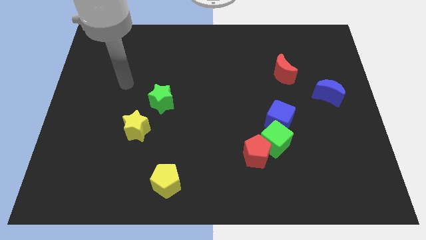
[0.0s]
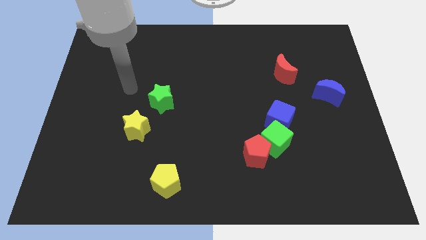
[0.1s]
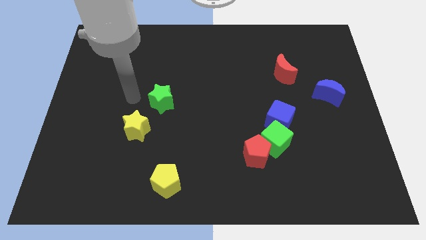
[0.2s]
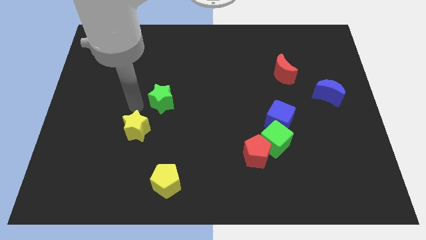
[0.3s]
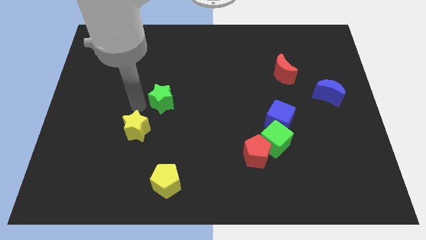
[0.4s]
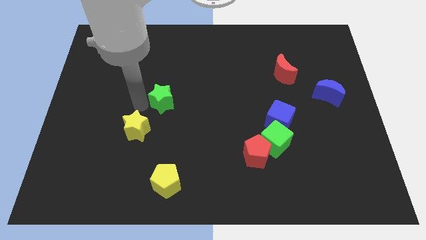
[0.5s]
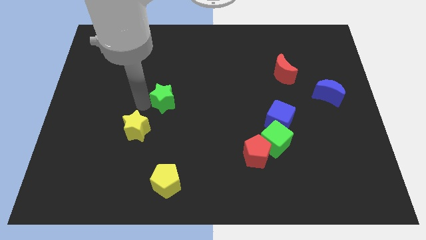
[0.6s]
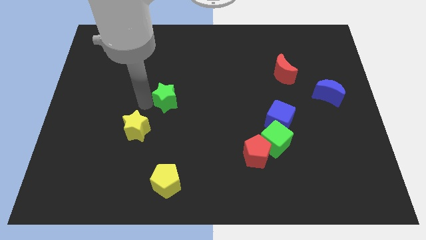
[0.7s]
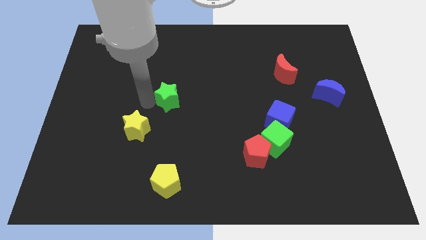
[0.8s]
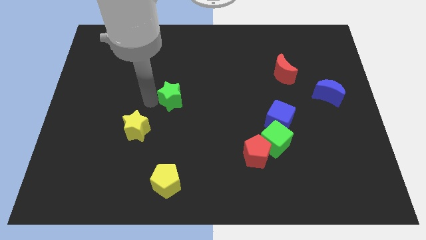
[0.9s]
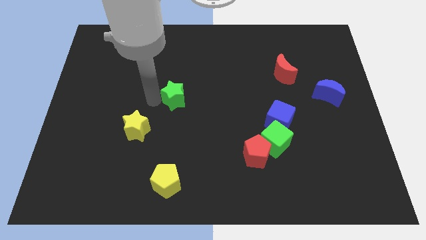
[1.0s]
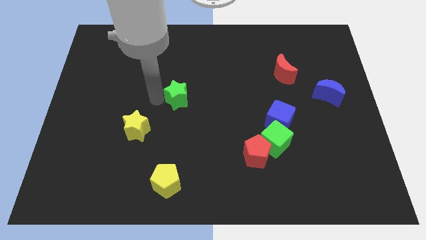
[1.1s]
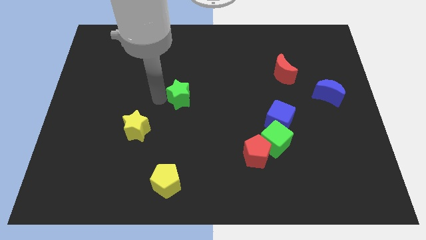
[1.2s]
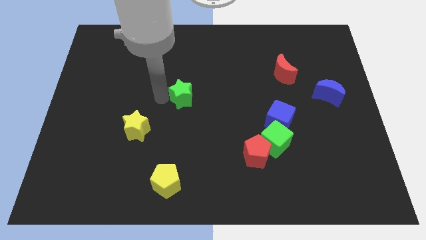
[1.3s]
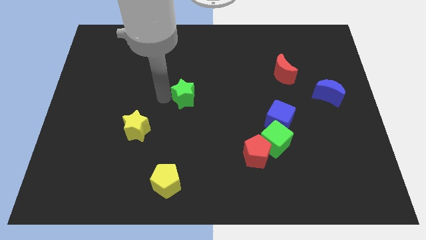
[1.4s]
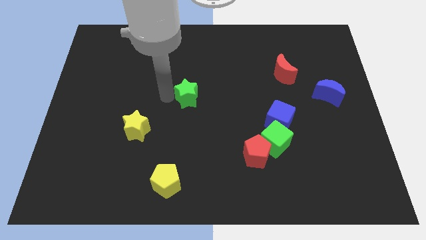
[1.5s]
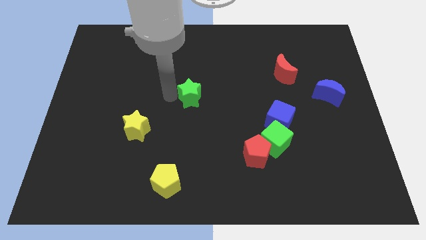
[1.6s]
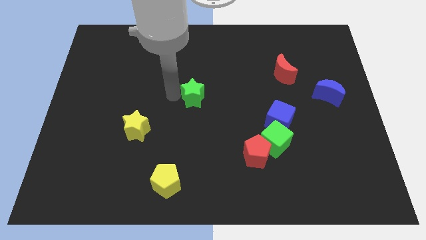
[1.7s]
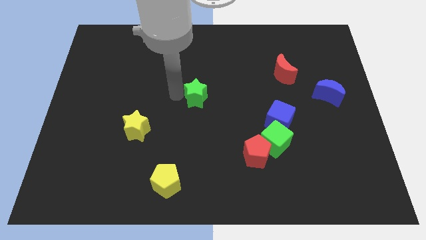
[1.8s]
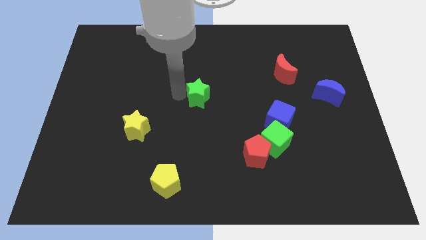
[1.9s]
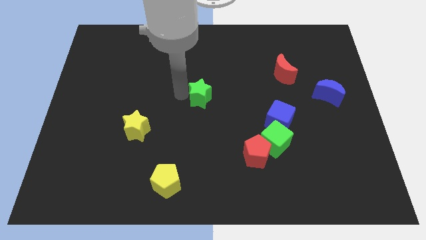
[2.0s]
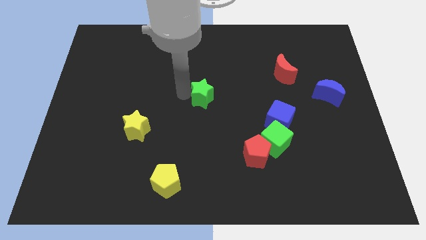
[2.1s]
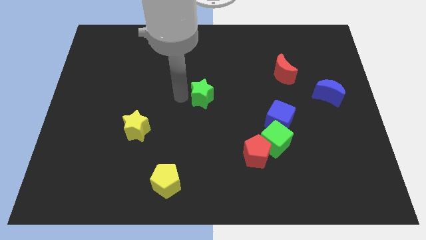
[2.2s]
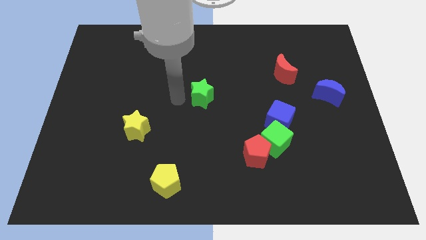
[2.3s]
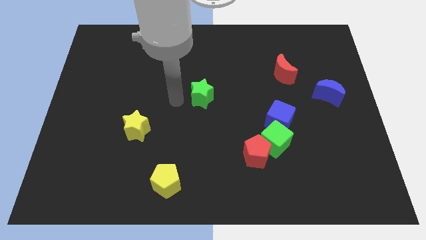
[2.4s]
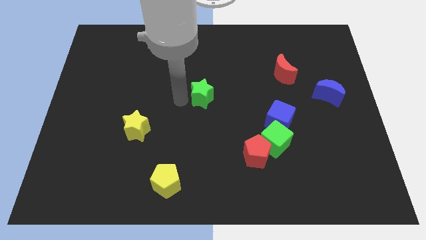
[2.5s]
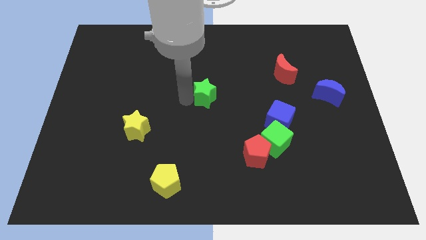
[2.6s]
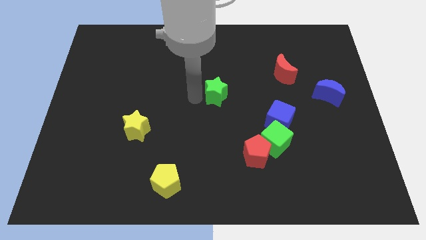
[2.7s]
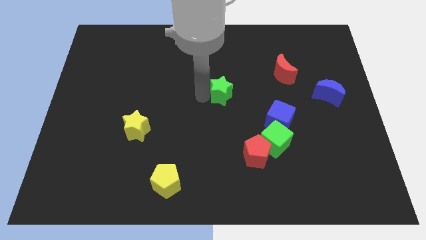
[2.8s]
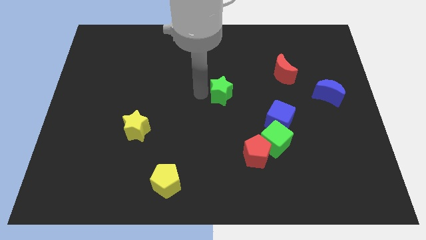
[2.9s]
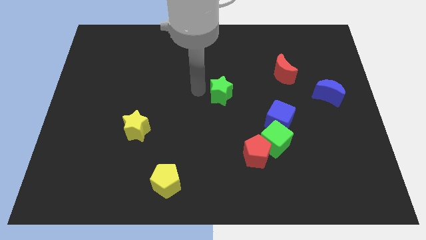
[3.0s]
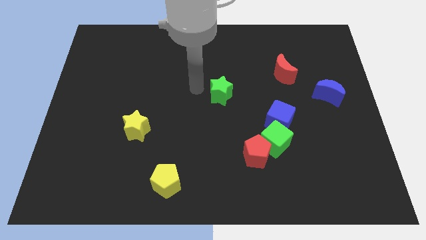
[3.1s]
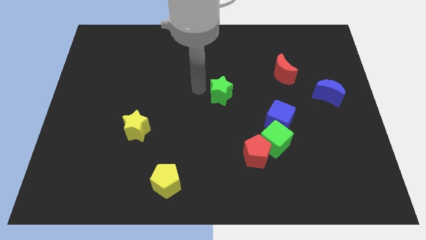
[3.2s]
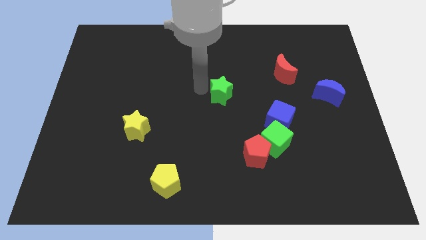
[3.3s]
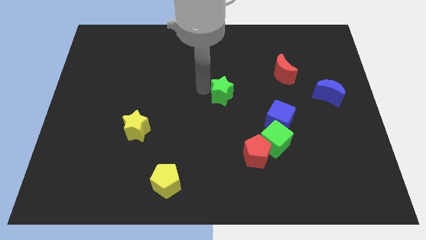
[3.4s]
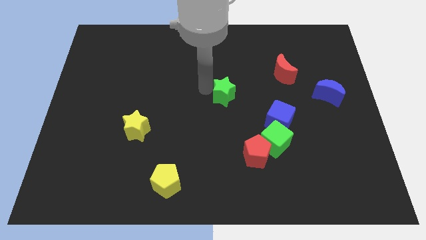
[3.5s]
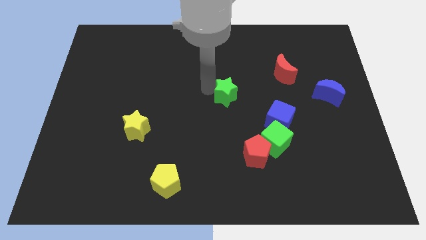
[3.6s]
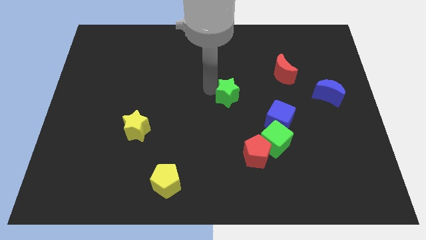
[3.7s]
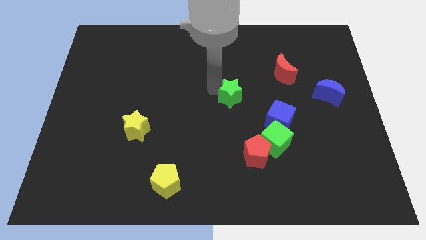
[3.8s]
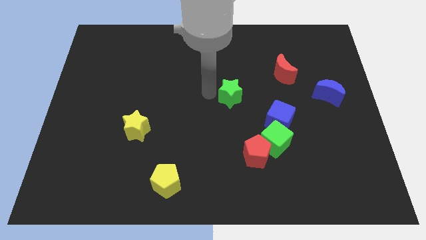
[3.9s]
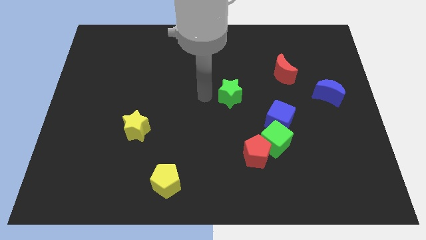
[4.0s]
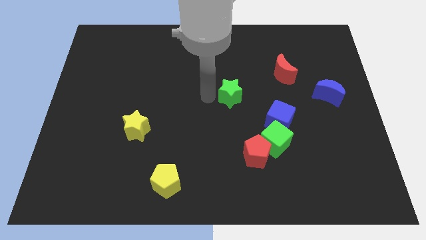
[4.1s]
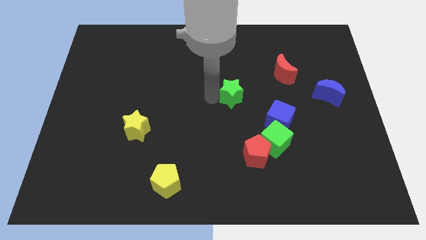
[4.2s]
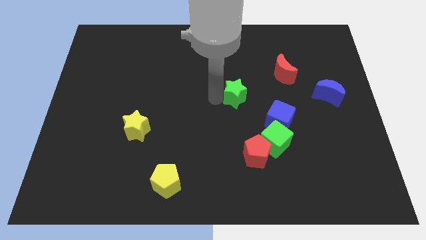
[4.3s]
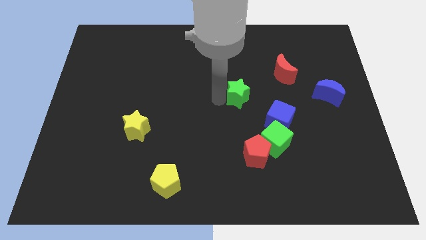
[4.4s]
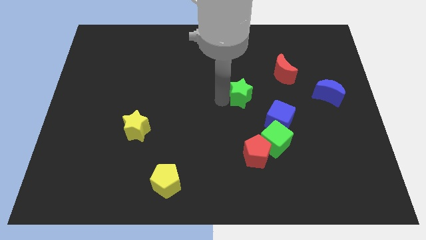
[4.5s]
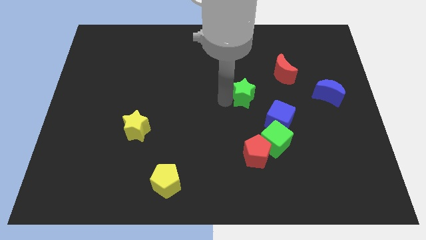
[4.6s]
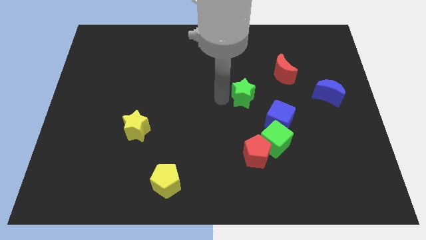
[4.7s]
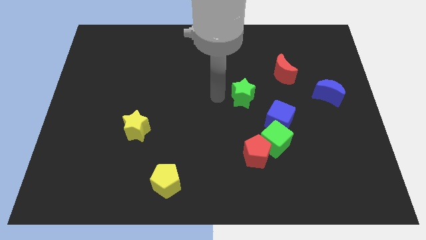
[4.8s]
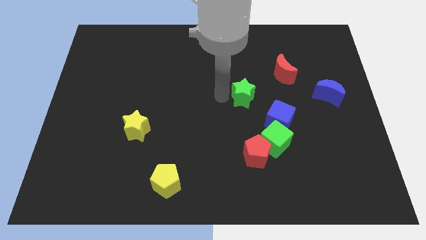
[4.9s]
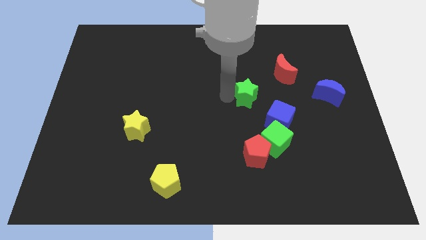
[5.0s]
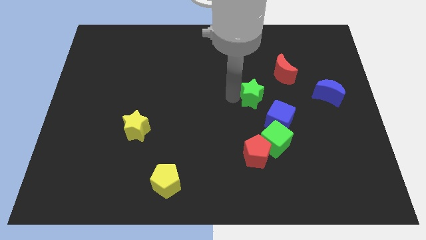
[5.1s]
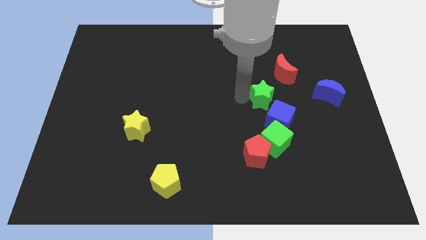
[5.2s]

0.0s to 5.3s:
put the green star left of the blue moon

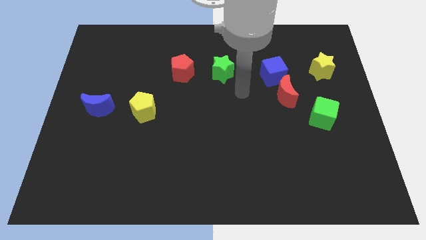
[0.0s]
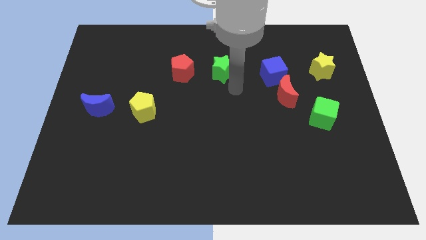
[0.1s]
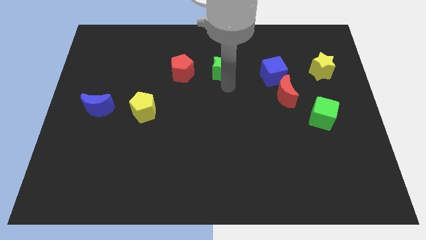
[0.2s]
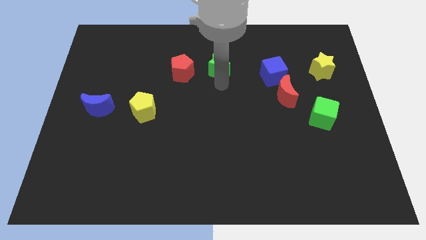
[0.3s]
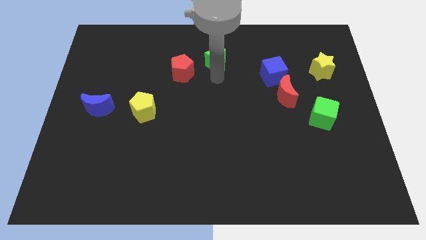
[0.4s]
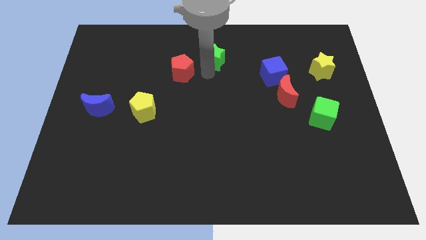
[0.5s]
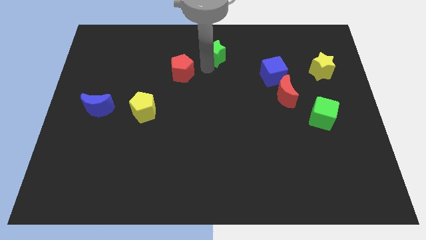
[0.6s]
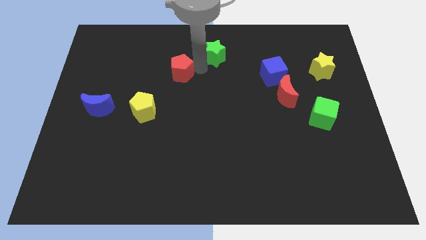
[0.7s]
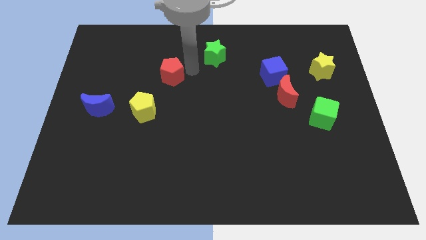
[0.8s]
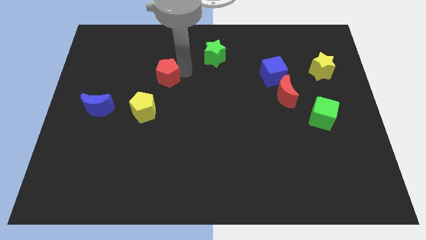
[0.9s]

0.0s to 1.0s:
slide the red pentagon to the top side of the yellow pentagon

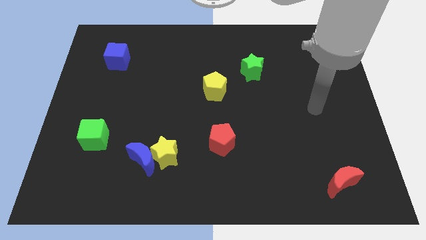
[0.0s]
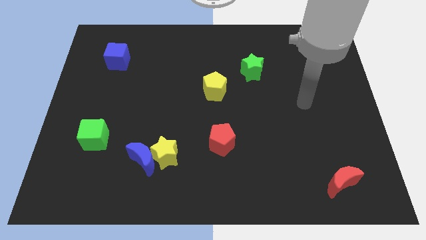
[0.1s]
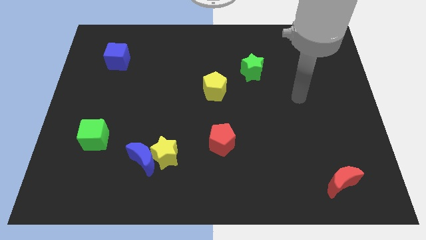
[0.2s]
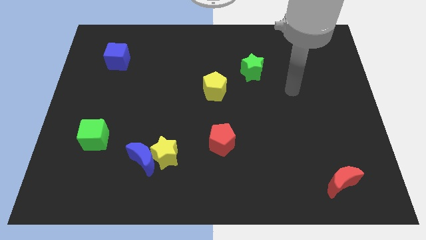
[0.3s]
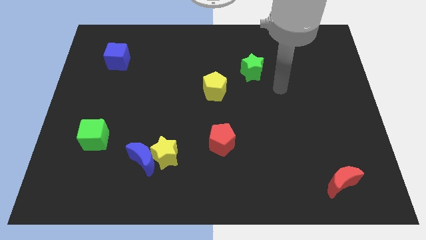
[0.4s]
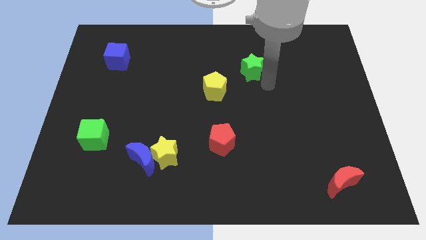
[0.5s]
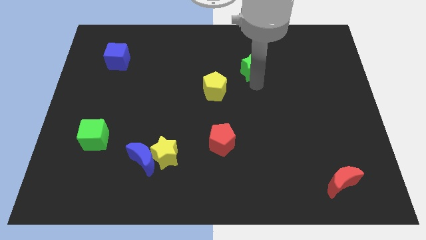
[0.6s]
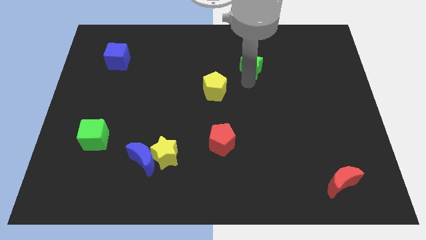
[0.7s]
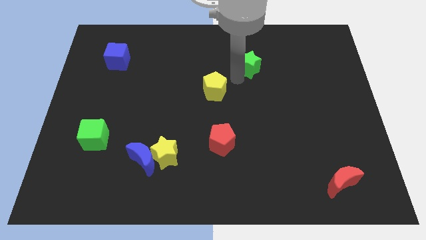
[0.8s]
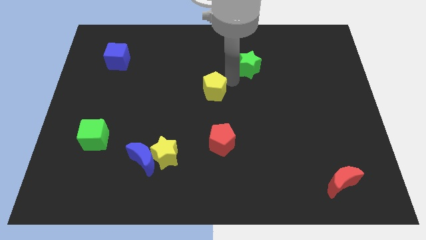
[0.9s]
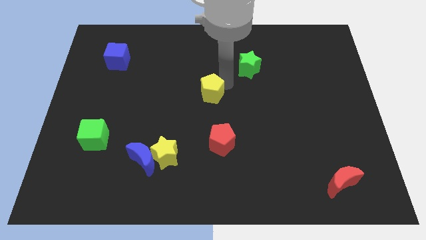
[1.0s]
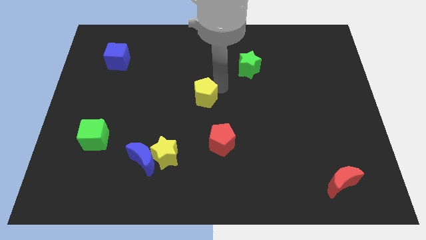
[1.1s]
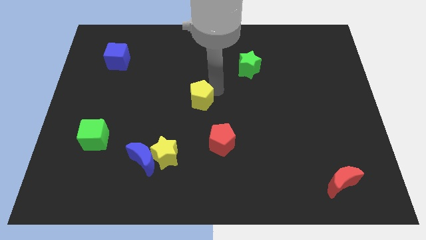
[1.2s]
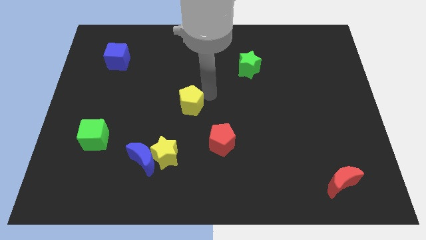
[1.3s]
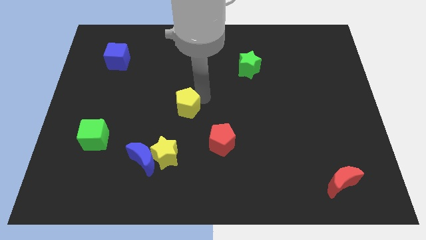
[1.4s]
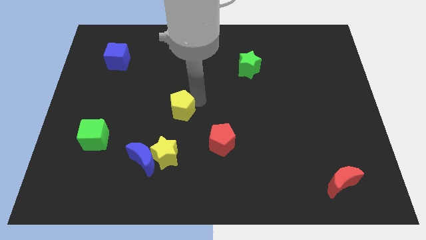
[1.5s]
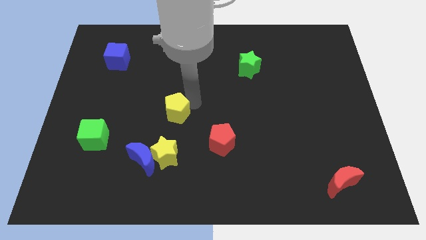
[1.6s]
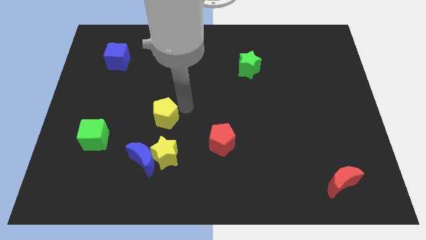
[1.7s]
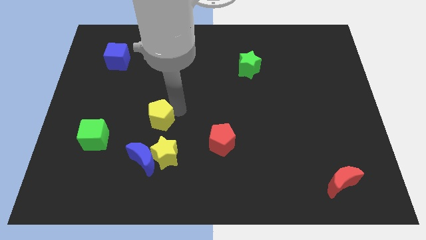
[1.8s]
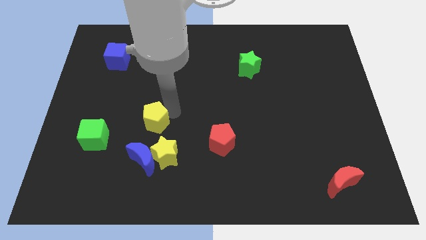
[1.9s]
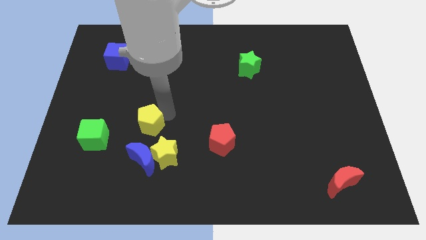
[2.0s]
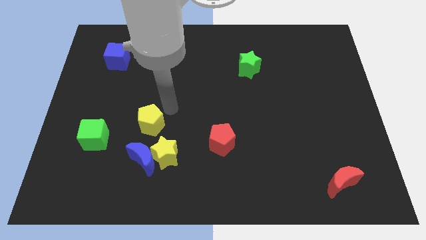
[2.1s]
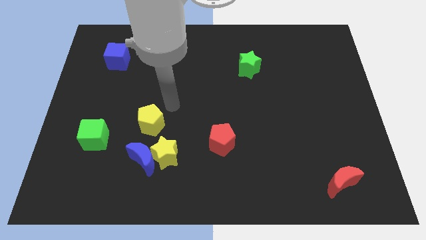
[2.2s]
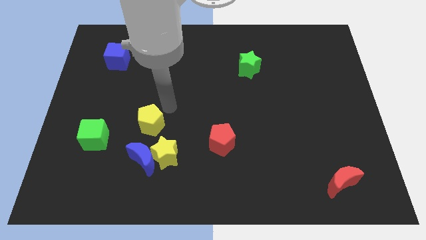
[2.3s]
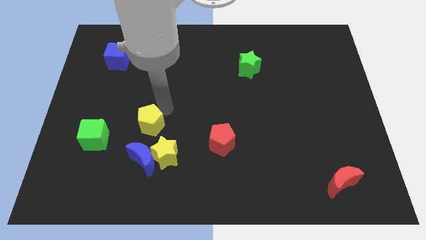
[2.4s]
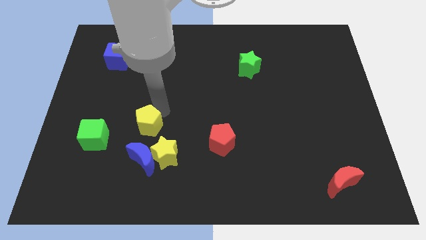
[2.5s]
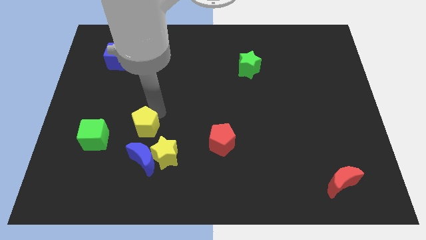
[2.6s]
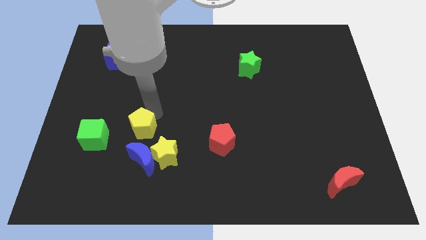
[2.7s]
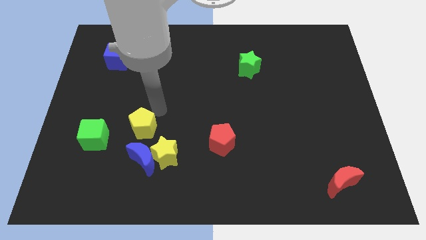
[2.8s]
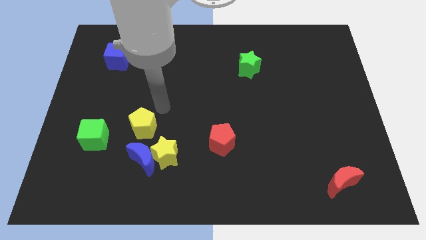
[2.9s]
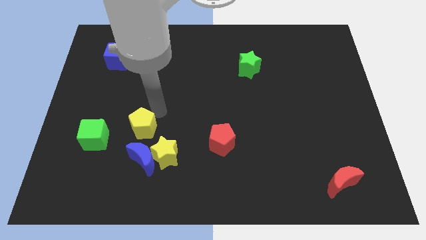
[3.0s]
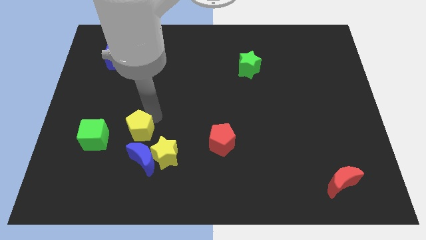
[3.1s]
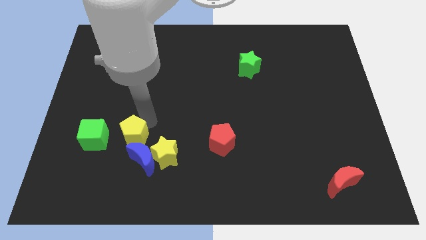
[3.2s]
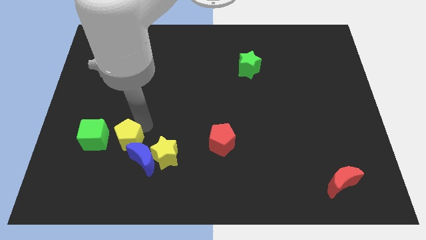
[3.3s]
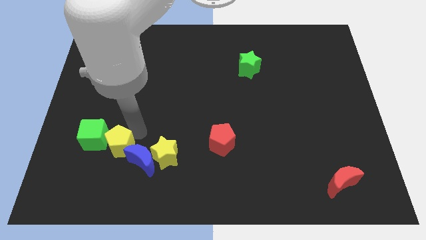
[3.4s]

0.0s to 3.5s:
move the yellow pentagon left of the blue moon
